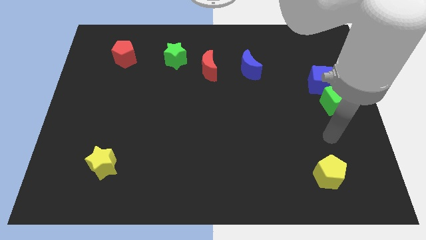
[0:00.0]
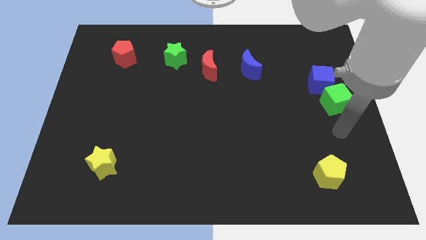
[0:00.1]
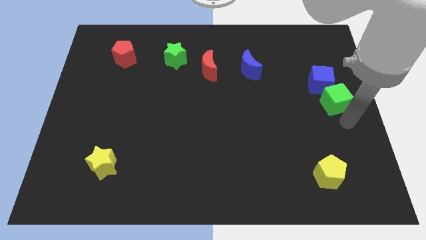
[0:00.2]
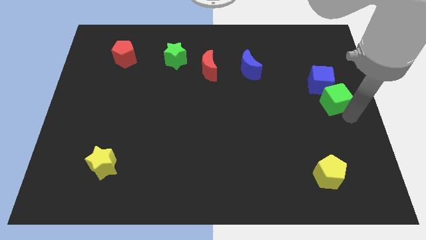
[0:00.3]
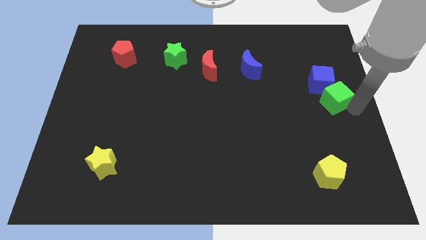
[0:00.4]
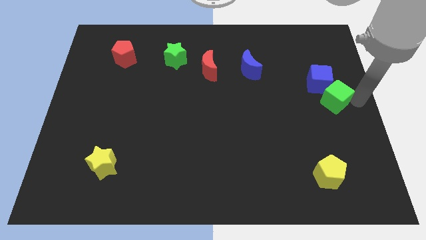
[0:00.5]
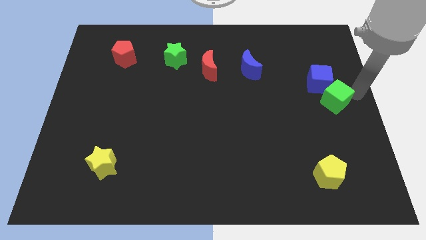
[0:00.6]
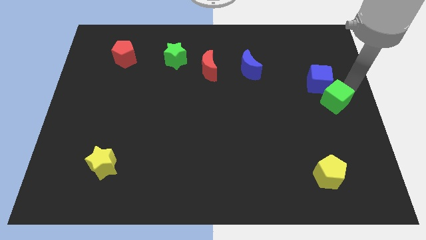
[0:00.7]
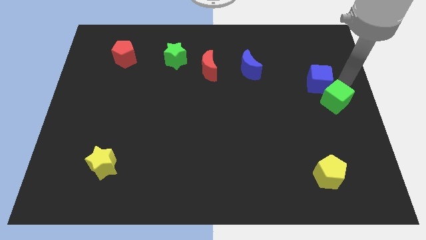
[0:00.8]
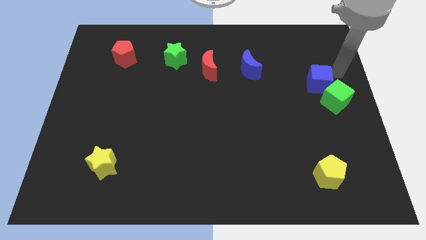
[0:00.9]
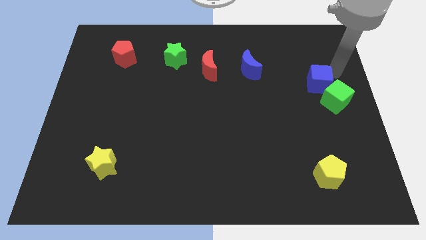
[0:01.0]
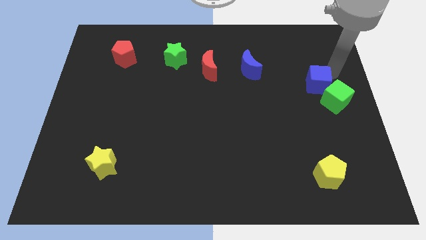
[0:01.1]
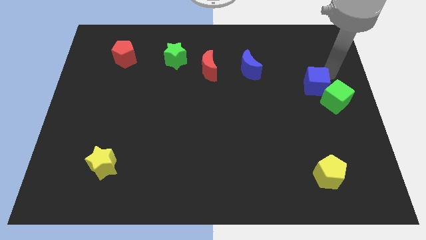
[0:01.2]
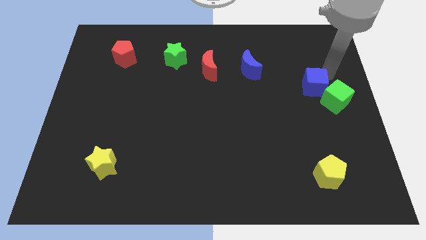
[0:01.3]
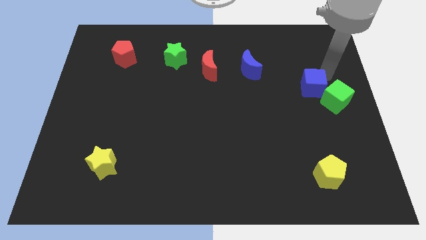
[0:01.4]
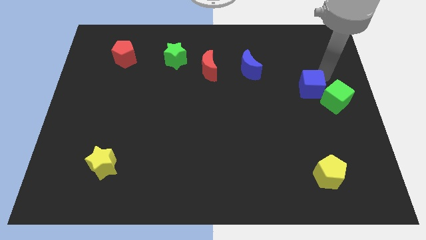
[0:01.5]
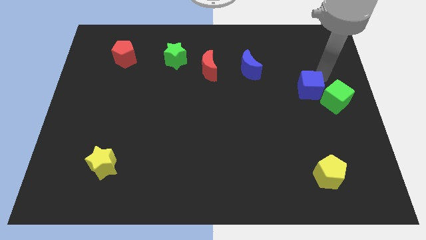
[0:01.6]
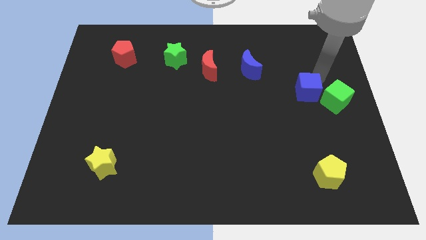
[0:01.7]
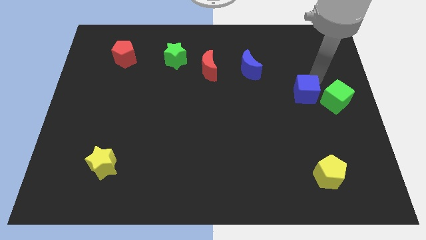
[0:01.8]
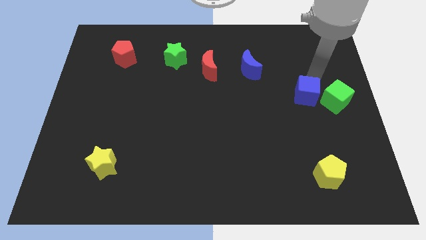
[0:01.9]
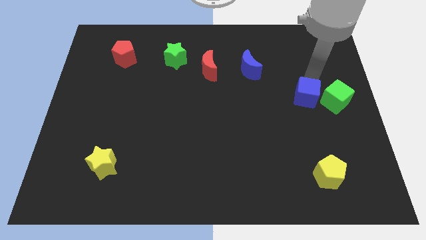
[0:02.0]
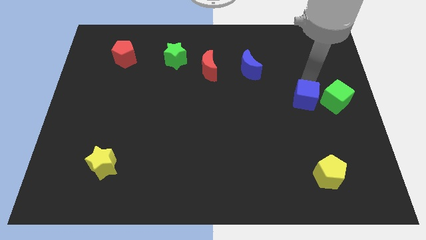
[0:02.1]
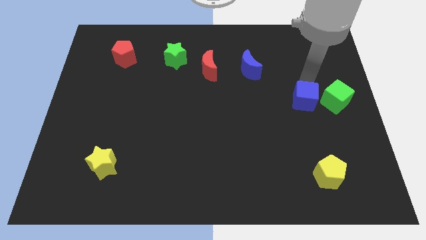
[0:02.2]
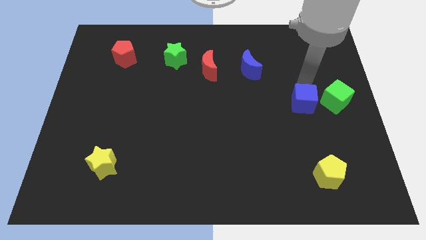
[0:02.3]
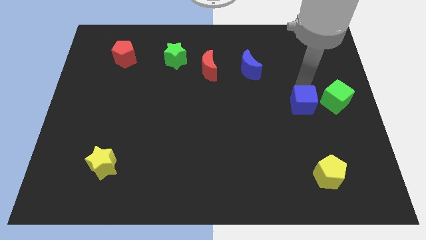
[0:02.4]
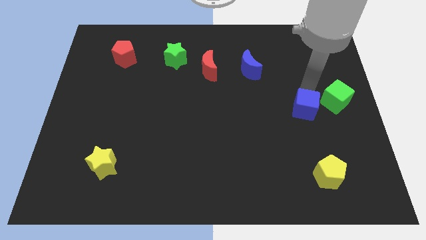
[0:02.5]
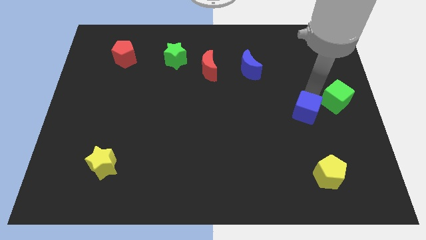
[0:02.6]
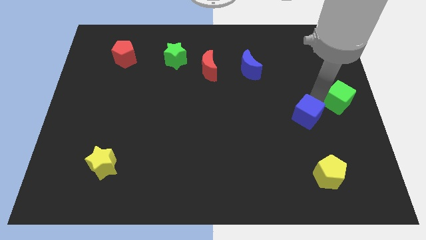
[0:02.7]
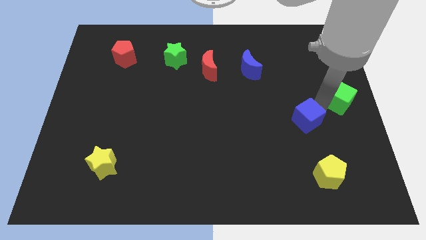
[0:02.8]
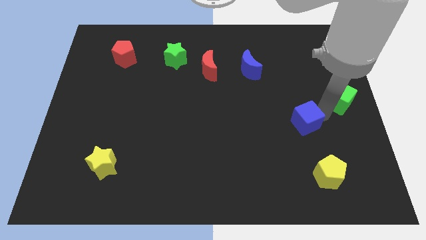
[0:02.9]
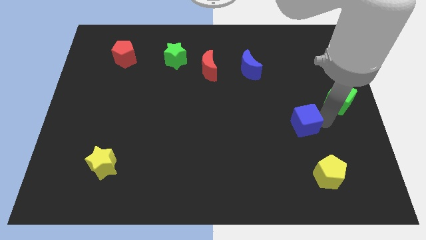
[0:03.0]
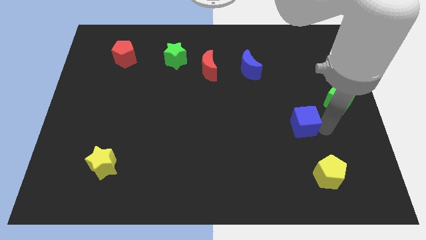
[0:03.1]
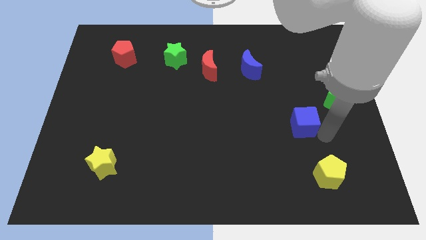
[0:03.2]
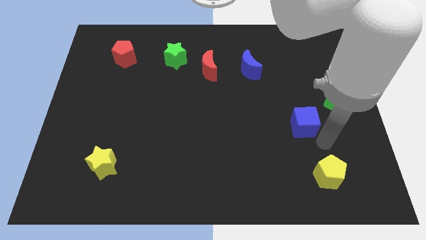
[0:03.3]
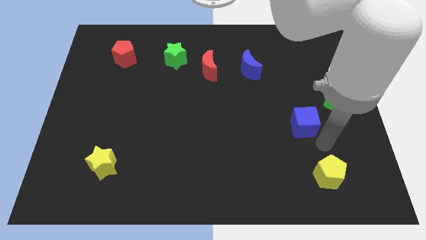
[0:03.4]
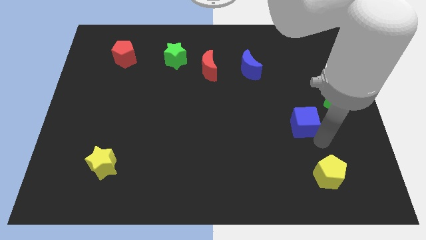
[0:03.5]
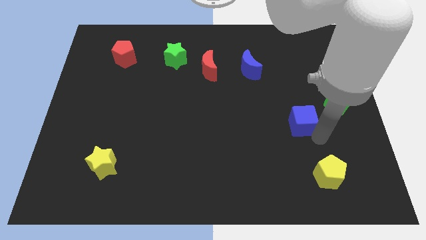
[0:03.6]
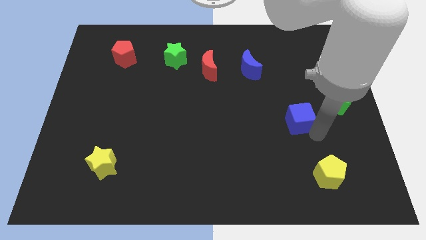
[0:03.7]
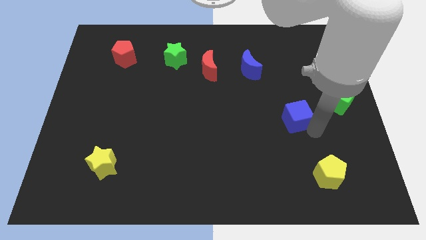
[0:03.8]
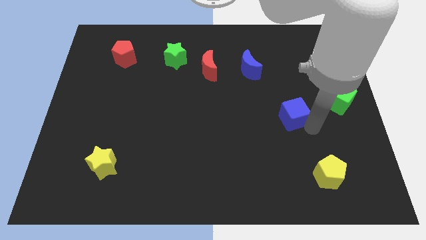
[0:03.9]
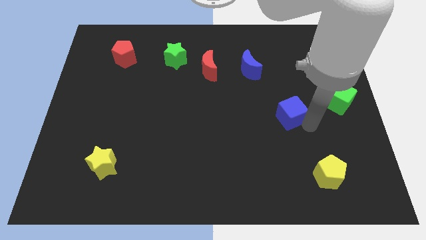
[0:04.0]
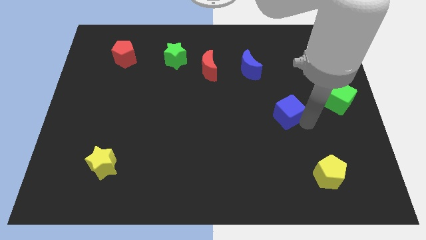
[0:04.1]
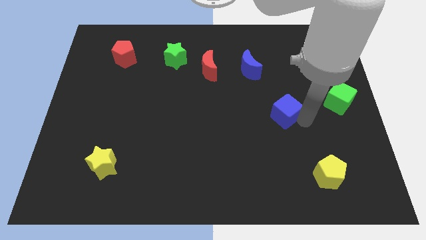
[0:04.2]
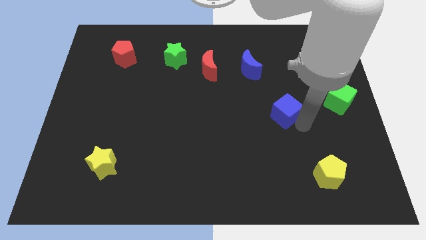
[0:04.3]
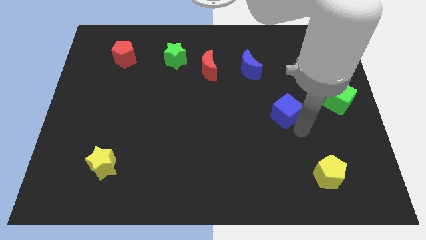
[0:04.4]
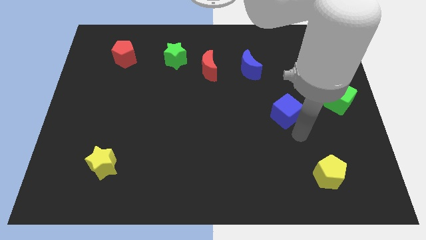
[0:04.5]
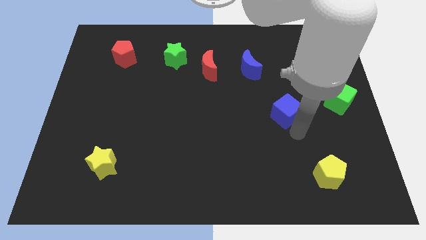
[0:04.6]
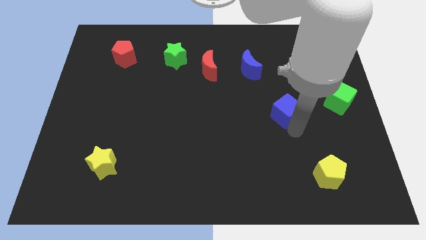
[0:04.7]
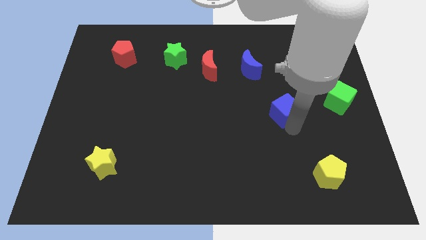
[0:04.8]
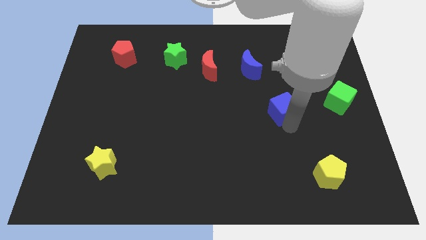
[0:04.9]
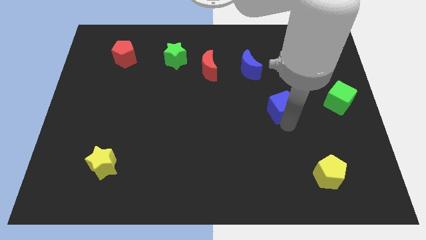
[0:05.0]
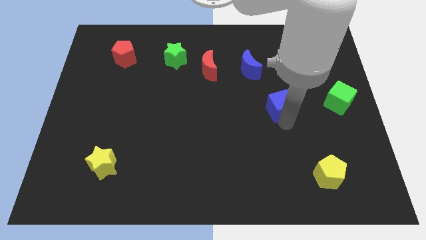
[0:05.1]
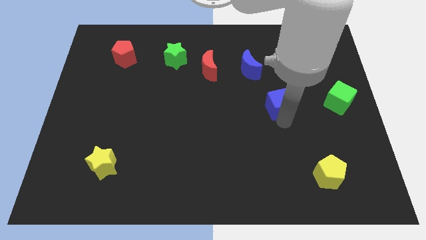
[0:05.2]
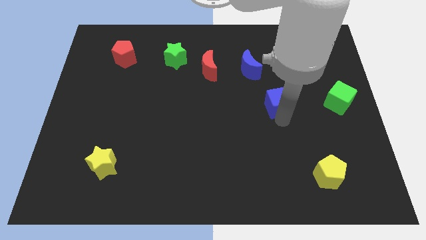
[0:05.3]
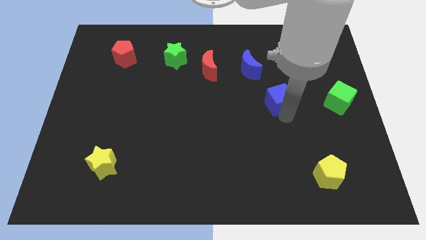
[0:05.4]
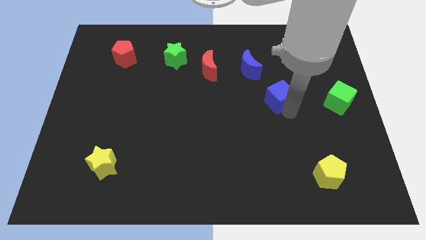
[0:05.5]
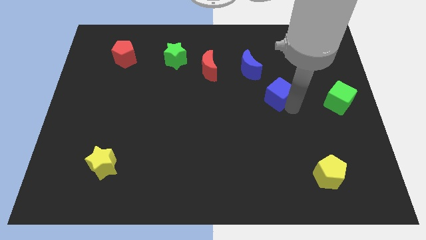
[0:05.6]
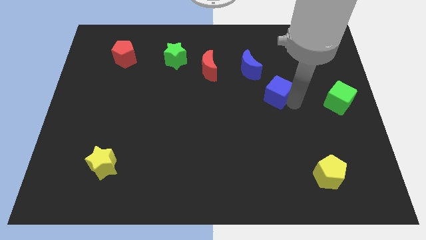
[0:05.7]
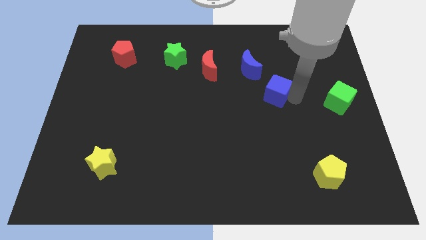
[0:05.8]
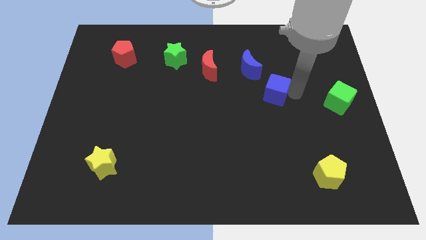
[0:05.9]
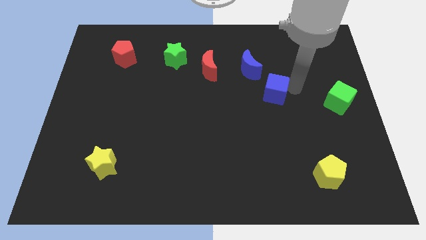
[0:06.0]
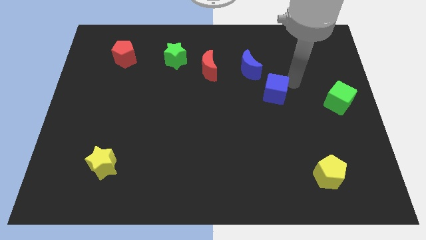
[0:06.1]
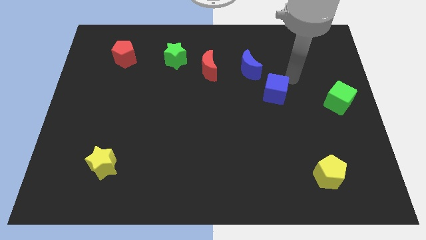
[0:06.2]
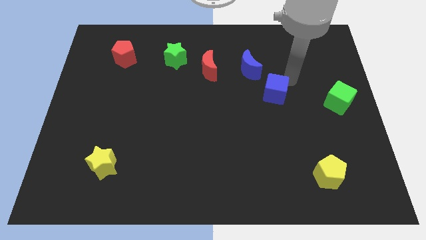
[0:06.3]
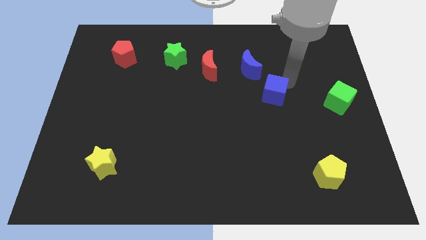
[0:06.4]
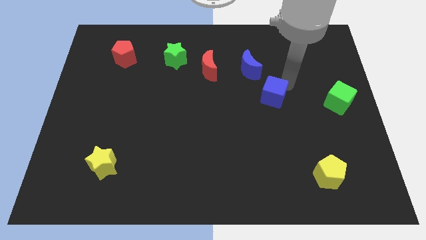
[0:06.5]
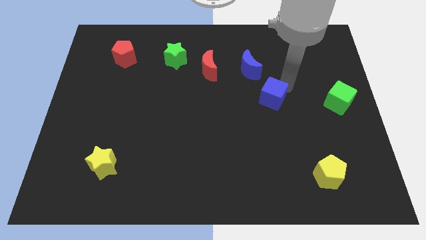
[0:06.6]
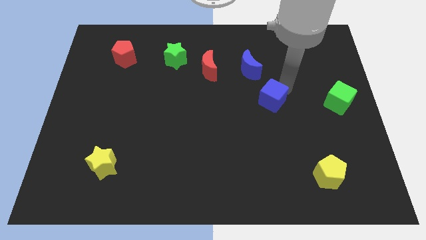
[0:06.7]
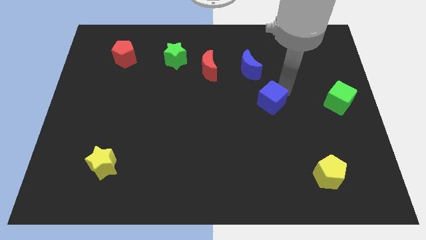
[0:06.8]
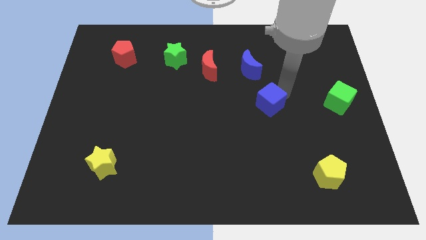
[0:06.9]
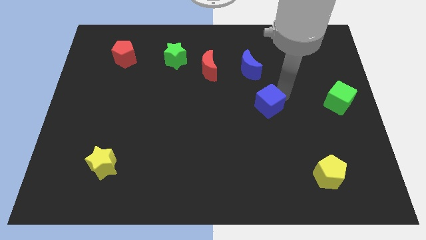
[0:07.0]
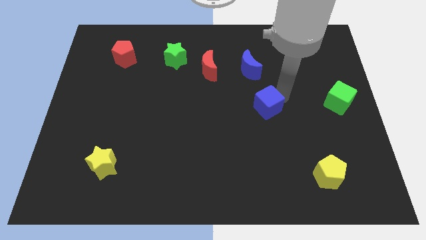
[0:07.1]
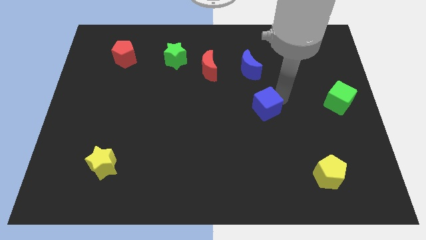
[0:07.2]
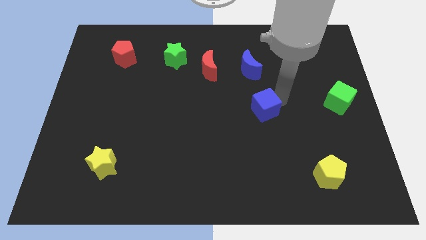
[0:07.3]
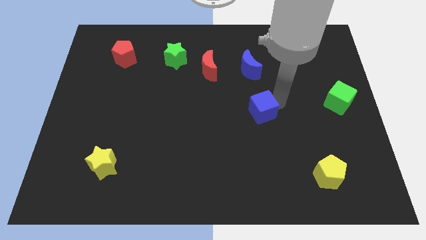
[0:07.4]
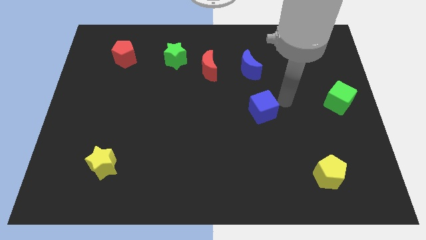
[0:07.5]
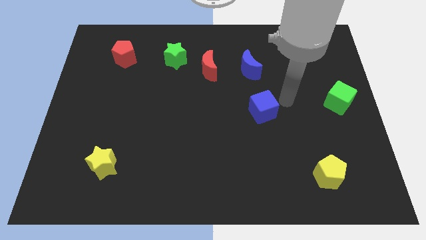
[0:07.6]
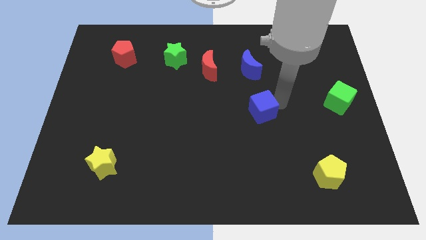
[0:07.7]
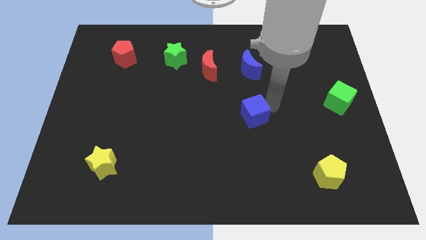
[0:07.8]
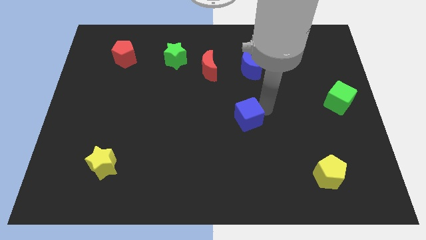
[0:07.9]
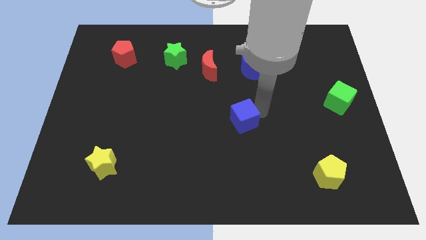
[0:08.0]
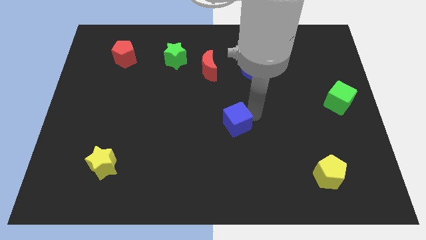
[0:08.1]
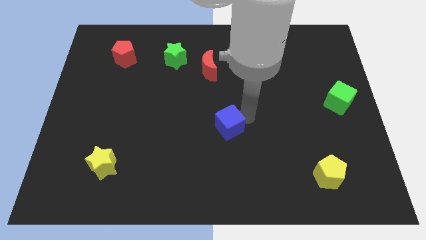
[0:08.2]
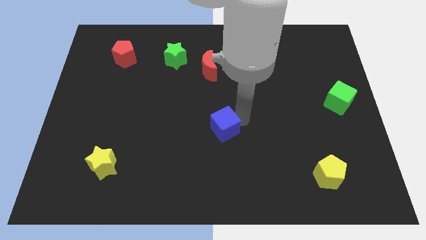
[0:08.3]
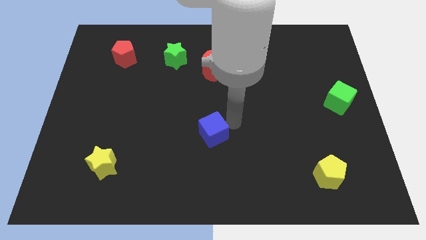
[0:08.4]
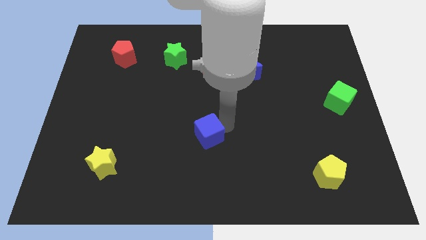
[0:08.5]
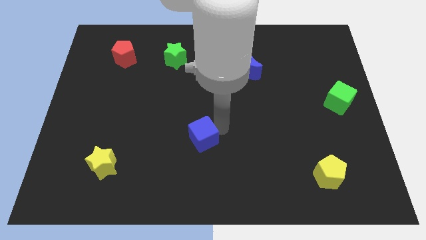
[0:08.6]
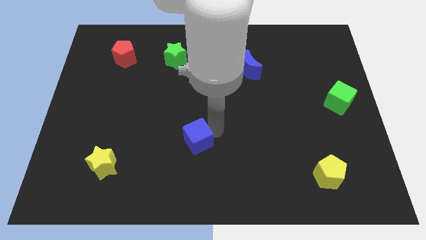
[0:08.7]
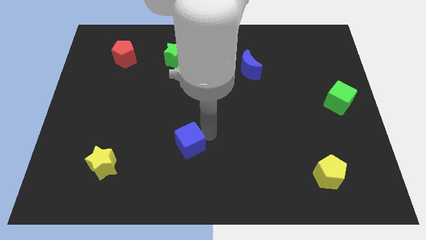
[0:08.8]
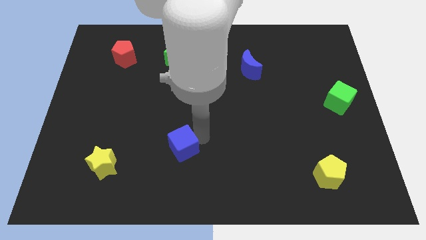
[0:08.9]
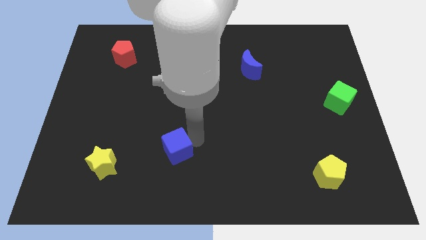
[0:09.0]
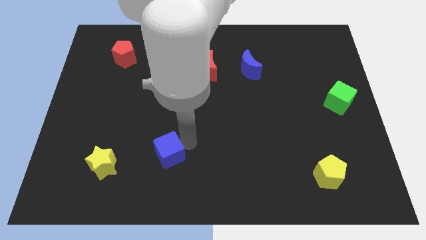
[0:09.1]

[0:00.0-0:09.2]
slide the blue cube to the right of the yellow star
